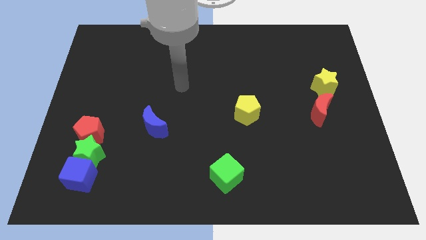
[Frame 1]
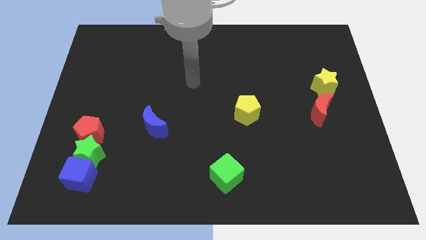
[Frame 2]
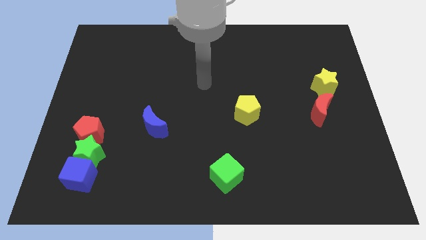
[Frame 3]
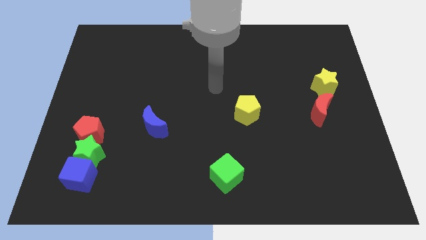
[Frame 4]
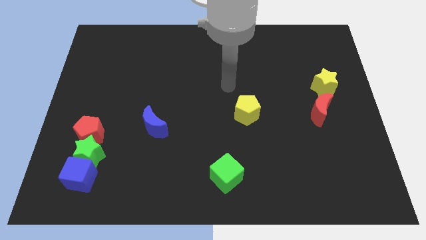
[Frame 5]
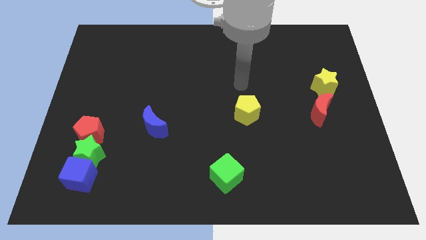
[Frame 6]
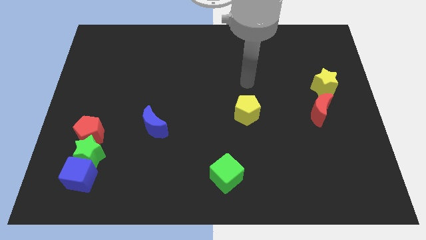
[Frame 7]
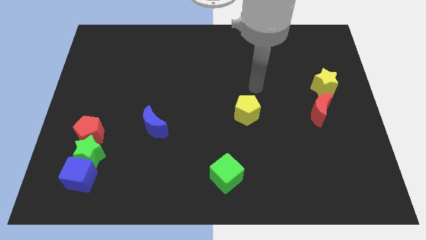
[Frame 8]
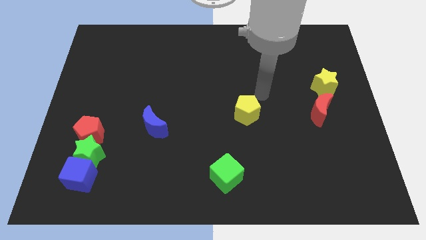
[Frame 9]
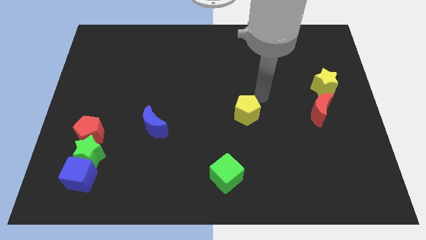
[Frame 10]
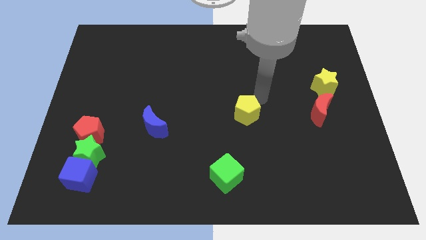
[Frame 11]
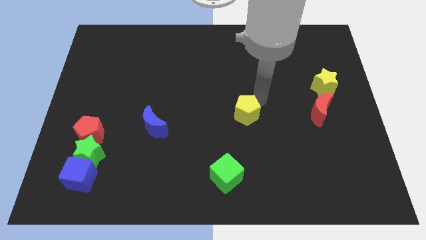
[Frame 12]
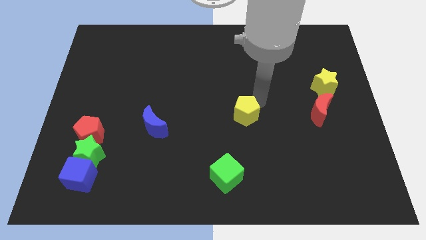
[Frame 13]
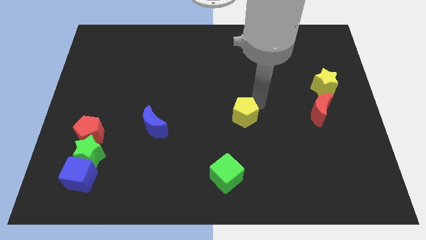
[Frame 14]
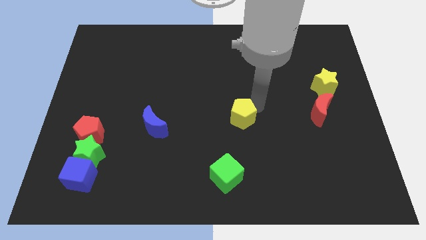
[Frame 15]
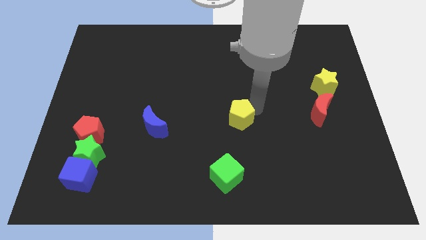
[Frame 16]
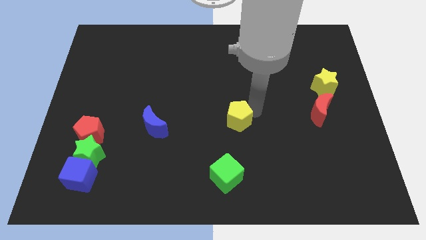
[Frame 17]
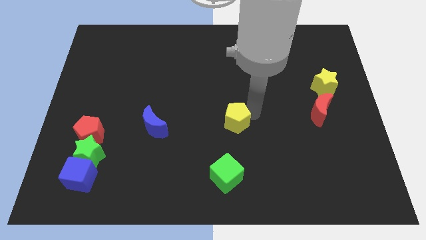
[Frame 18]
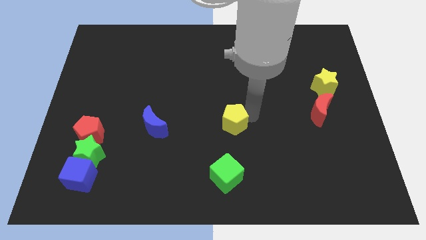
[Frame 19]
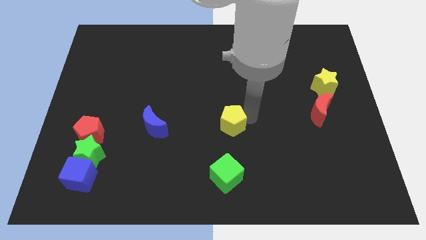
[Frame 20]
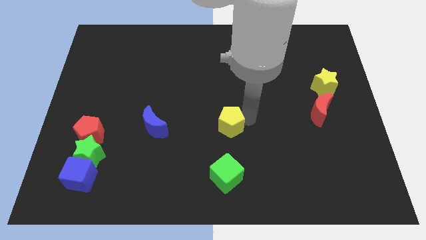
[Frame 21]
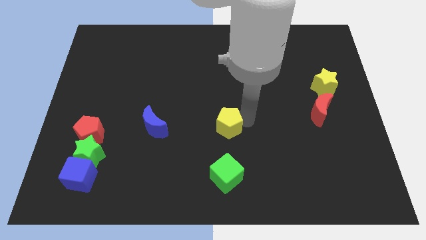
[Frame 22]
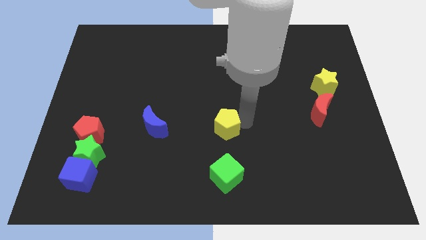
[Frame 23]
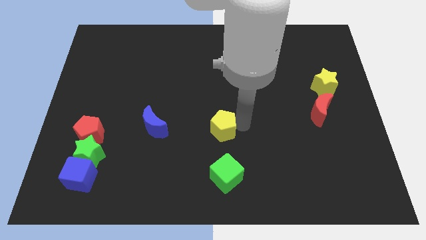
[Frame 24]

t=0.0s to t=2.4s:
move the yellow pentagon downwards and then left a bit

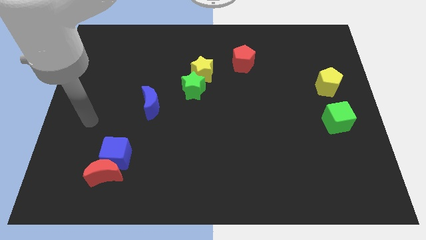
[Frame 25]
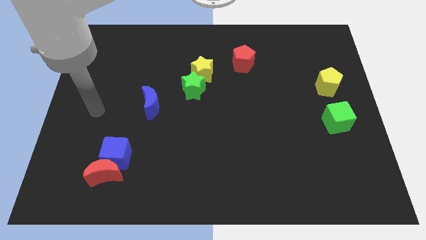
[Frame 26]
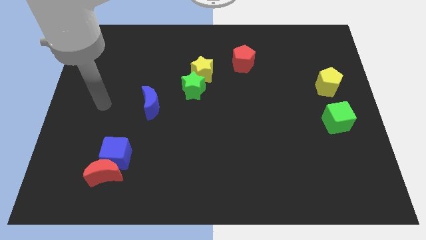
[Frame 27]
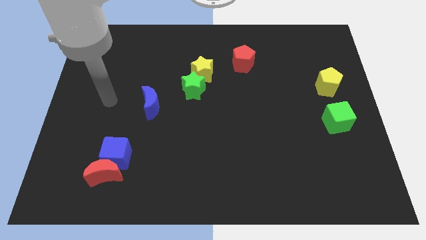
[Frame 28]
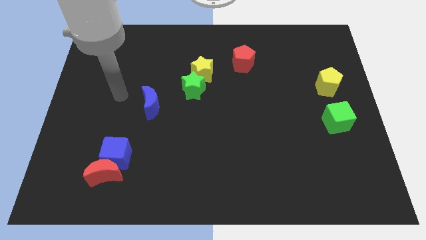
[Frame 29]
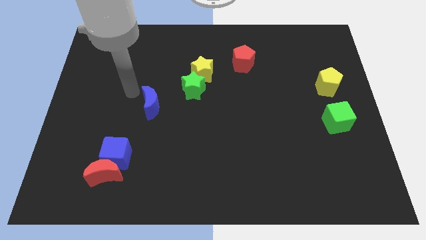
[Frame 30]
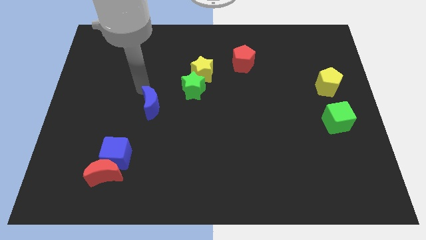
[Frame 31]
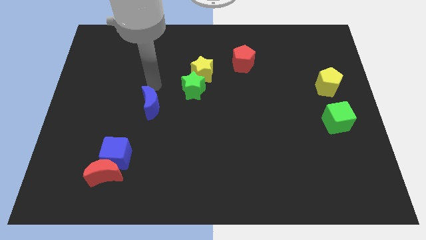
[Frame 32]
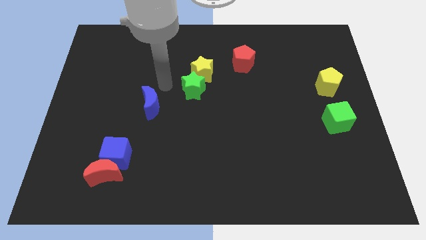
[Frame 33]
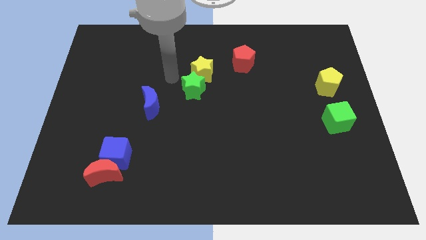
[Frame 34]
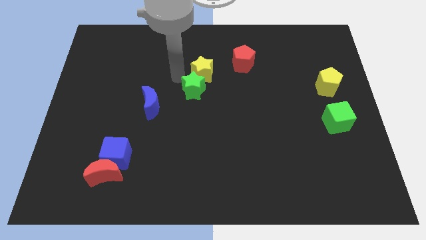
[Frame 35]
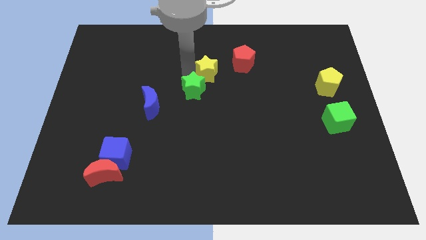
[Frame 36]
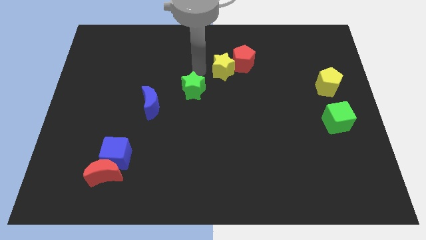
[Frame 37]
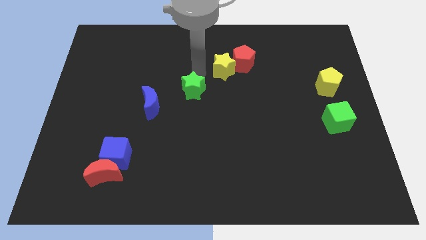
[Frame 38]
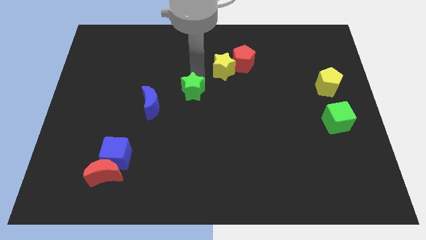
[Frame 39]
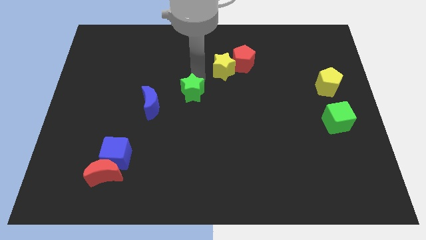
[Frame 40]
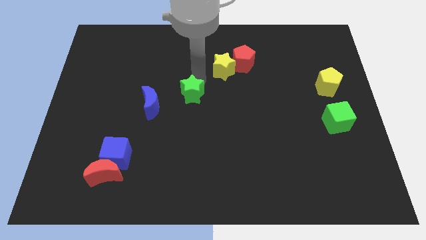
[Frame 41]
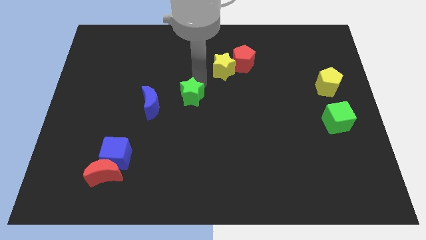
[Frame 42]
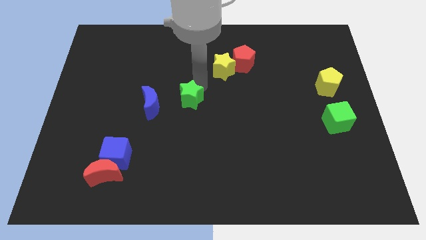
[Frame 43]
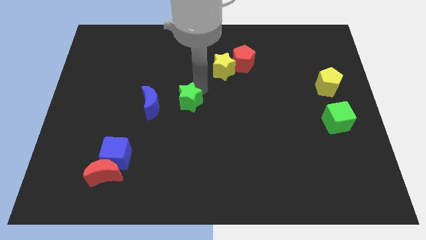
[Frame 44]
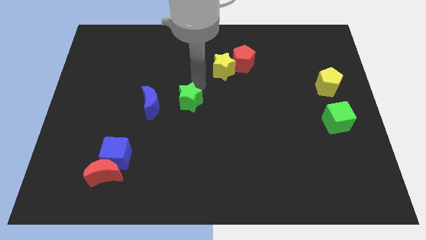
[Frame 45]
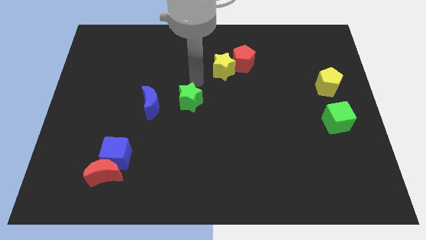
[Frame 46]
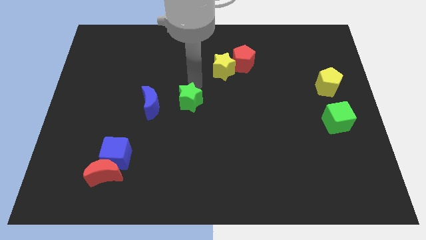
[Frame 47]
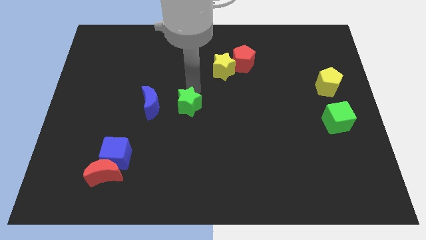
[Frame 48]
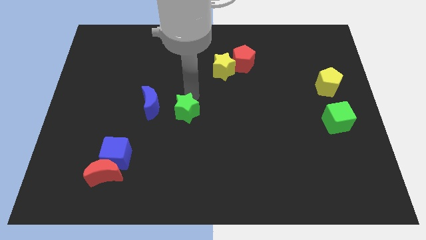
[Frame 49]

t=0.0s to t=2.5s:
move the green star a bit down

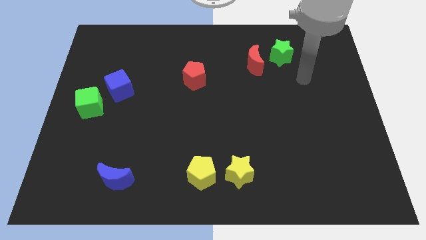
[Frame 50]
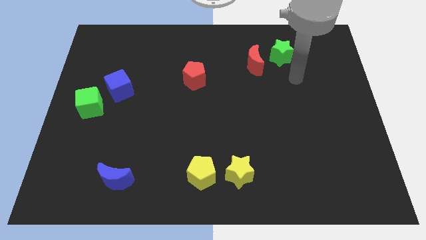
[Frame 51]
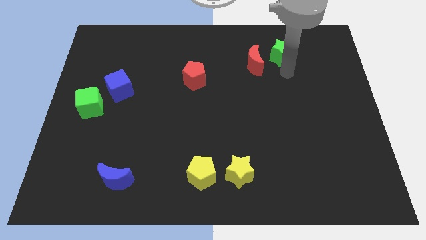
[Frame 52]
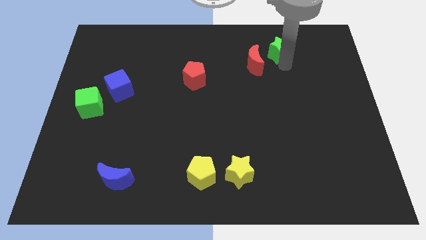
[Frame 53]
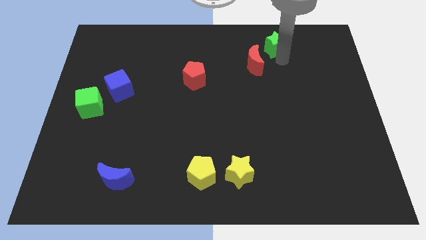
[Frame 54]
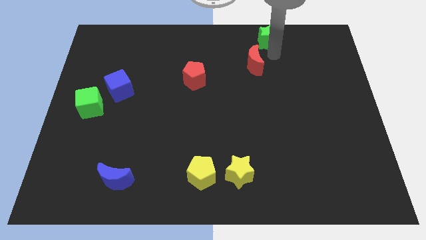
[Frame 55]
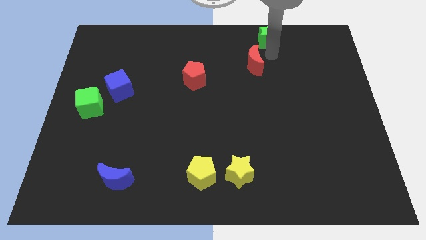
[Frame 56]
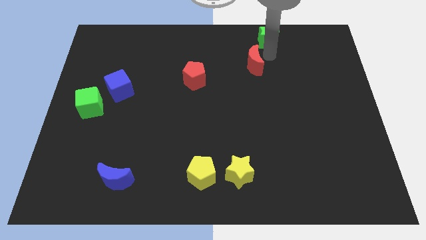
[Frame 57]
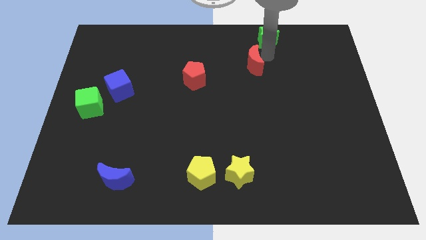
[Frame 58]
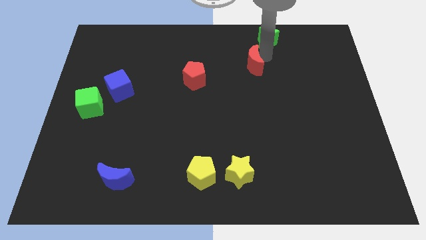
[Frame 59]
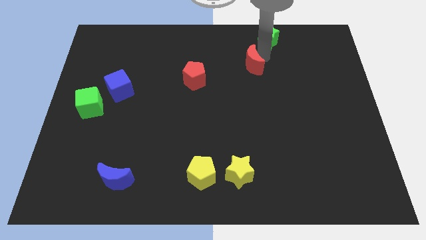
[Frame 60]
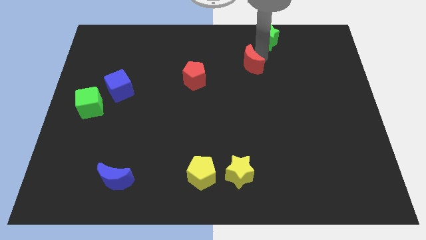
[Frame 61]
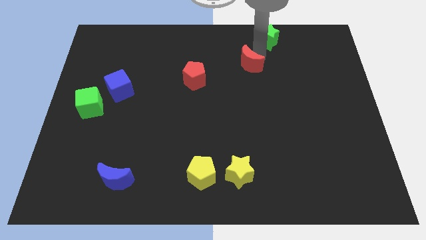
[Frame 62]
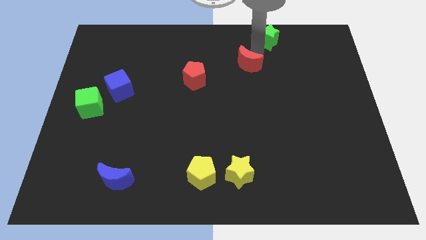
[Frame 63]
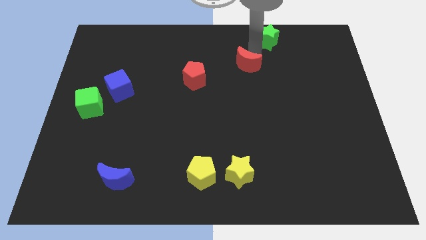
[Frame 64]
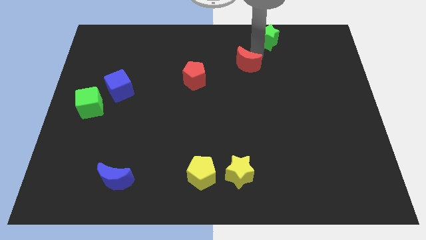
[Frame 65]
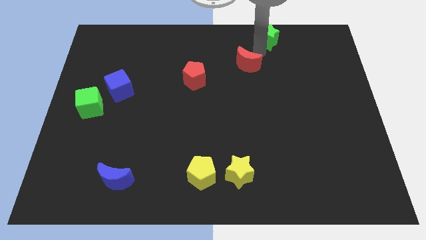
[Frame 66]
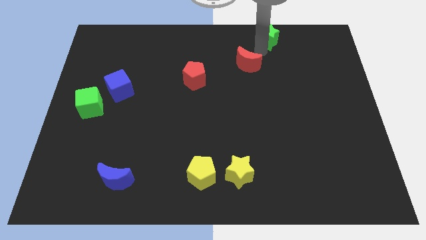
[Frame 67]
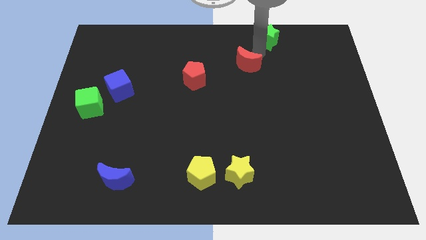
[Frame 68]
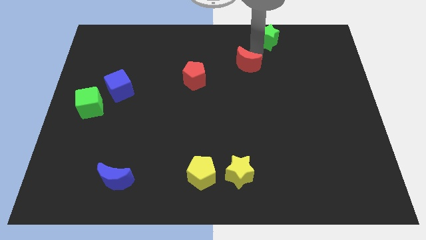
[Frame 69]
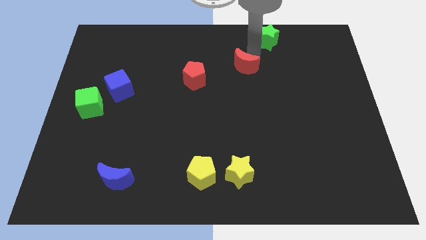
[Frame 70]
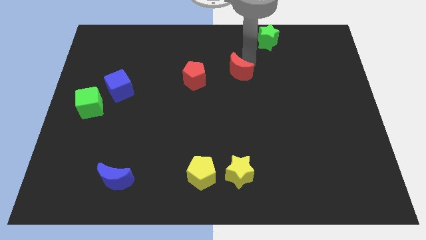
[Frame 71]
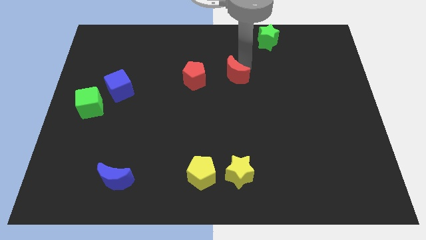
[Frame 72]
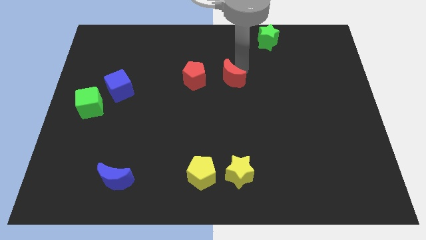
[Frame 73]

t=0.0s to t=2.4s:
move the red moon slightly down and left

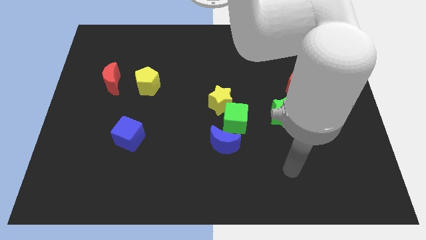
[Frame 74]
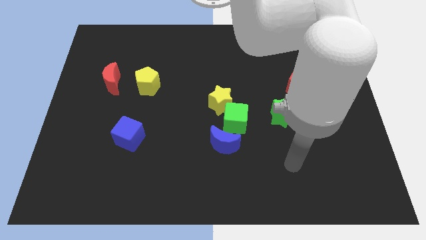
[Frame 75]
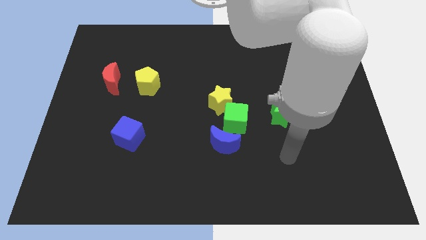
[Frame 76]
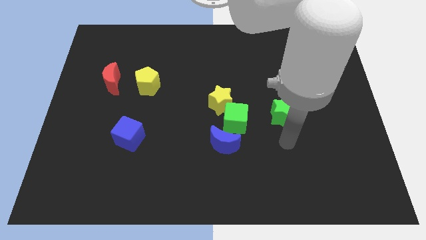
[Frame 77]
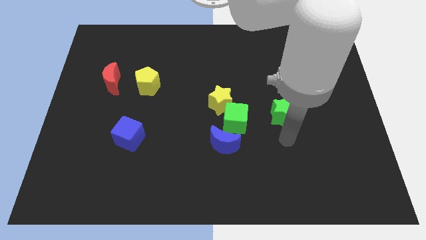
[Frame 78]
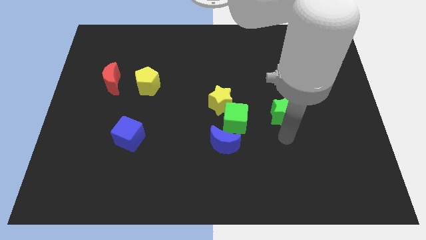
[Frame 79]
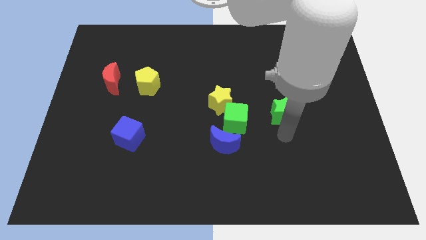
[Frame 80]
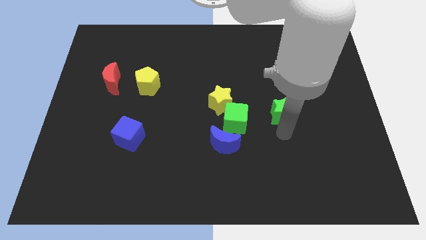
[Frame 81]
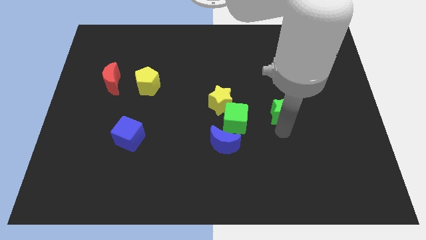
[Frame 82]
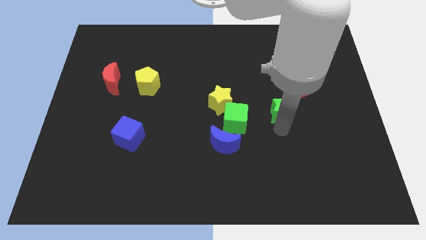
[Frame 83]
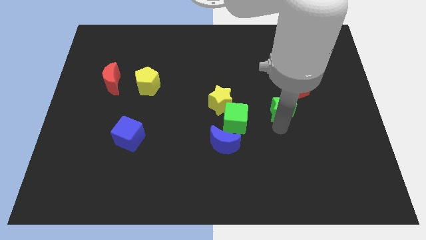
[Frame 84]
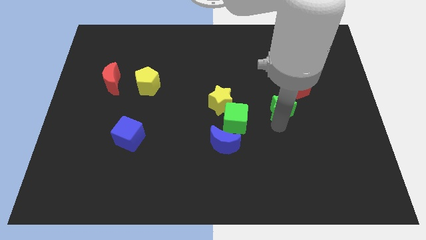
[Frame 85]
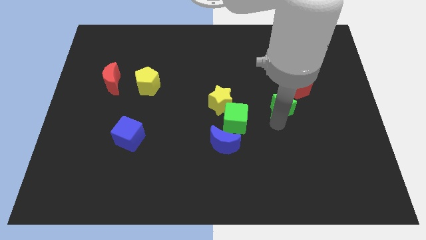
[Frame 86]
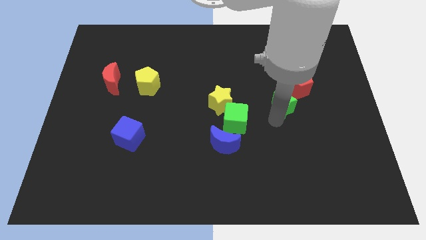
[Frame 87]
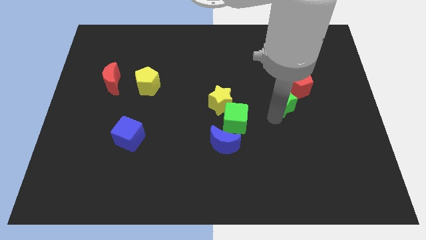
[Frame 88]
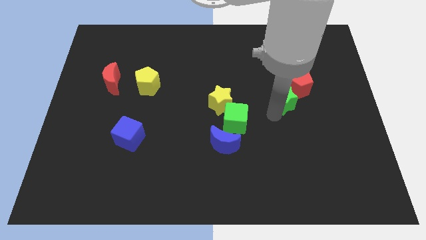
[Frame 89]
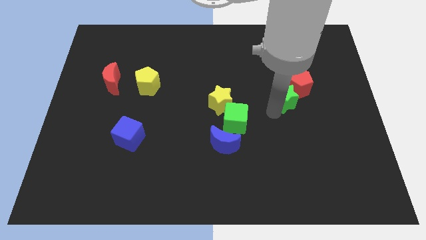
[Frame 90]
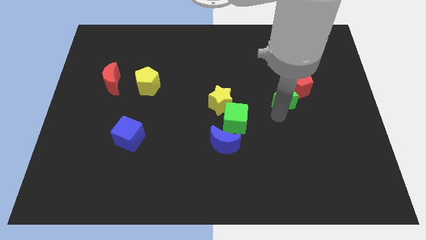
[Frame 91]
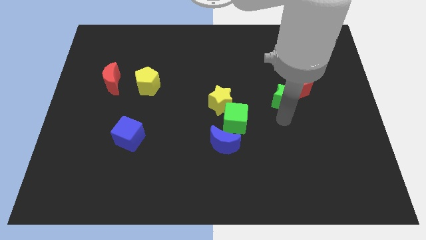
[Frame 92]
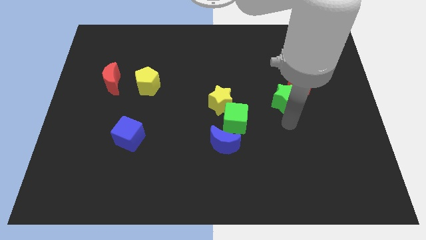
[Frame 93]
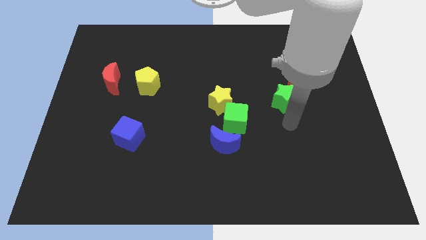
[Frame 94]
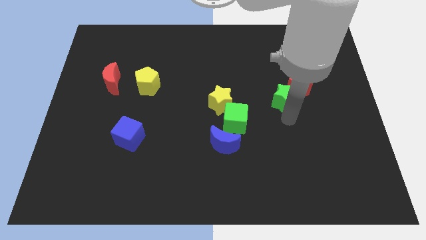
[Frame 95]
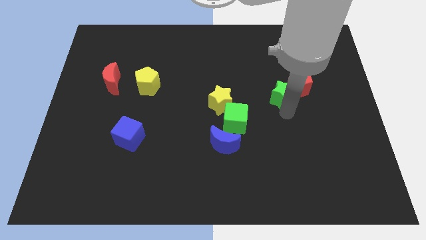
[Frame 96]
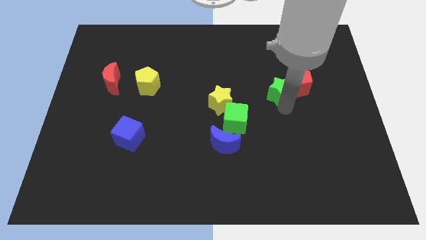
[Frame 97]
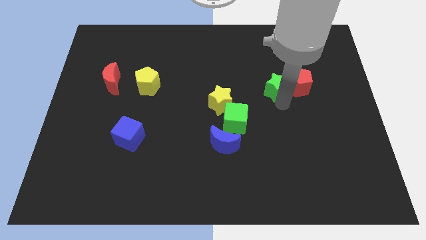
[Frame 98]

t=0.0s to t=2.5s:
slightly slide the green star upwards
